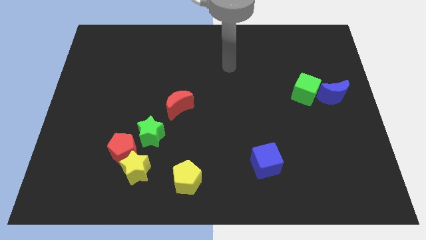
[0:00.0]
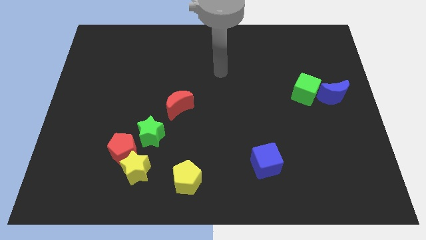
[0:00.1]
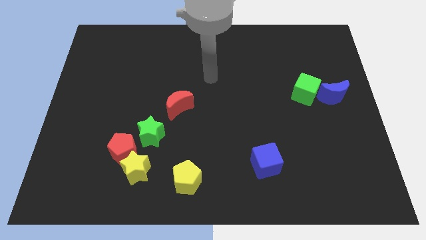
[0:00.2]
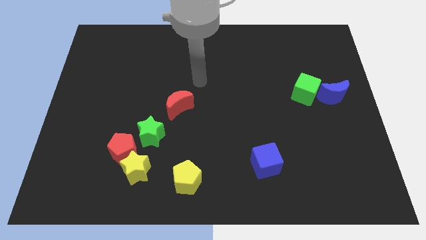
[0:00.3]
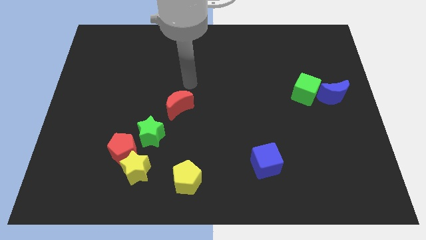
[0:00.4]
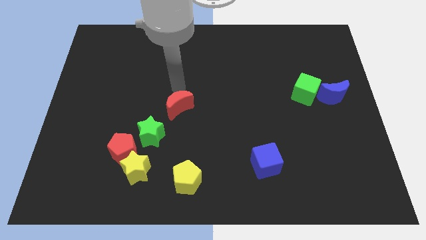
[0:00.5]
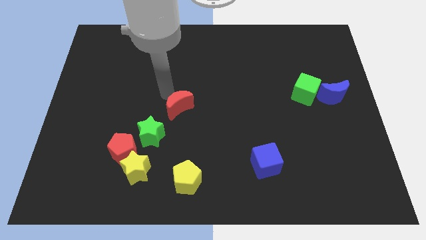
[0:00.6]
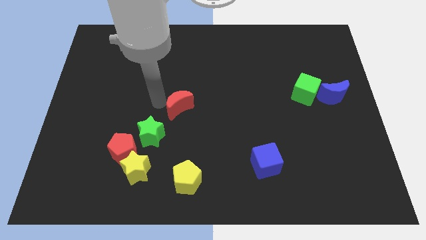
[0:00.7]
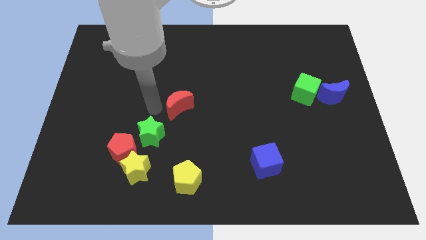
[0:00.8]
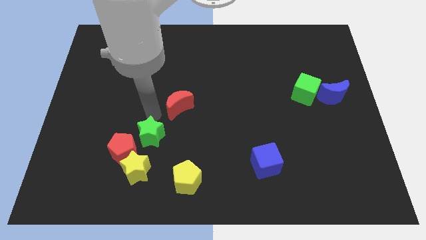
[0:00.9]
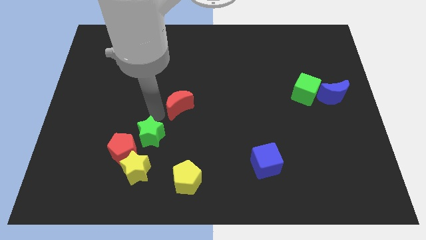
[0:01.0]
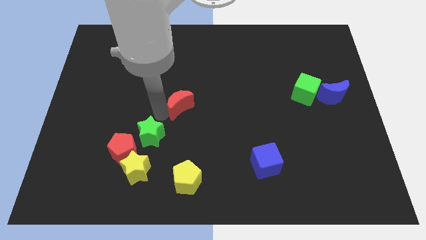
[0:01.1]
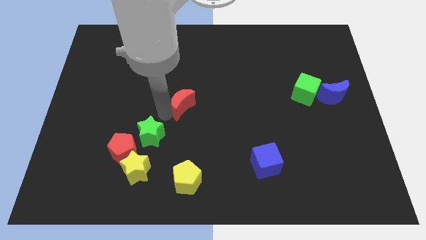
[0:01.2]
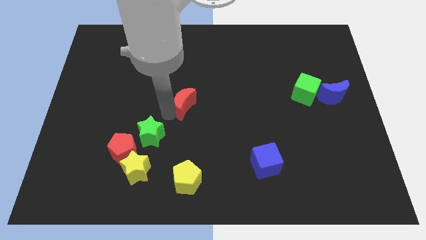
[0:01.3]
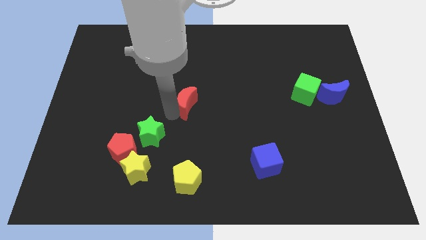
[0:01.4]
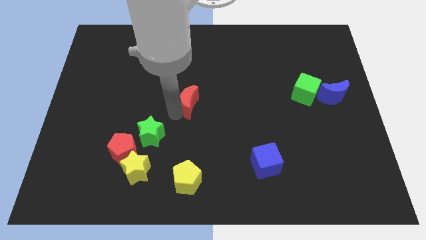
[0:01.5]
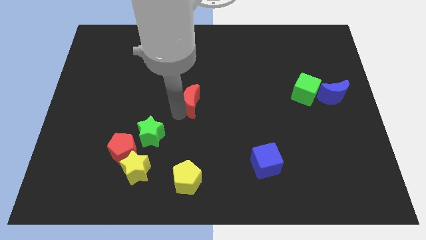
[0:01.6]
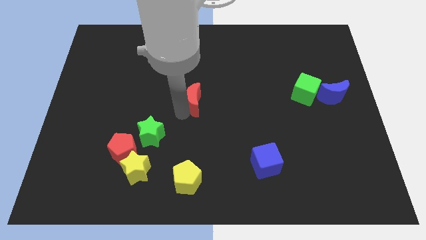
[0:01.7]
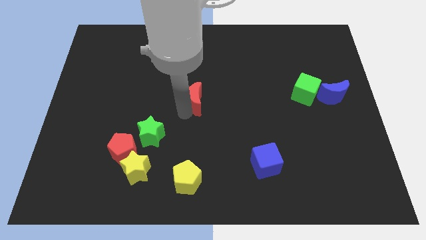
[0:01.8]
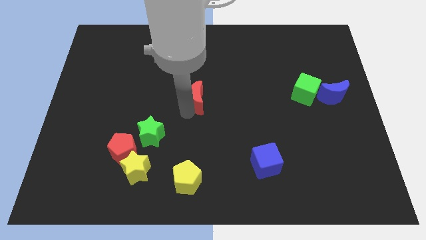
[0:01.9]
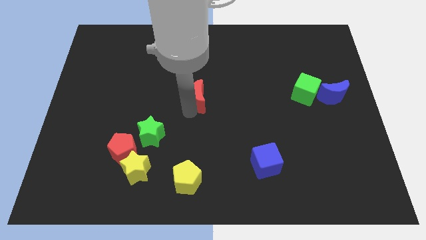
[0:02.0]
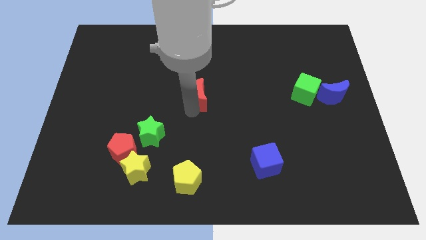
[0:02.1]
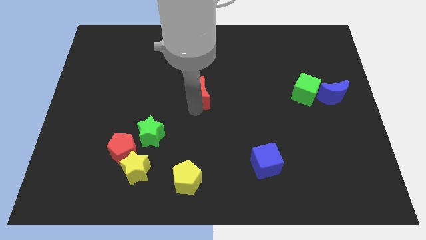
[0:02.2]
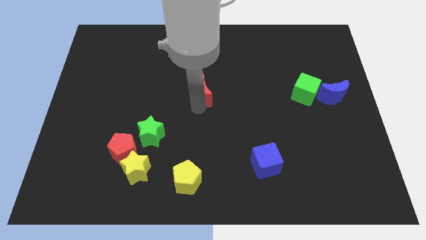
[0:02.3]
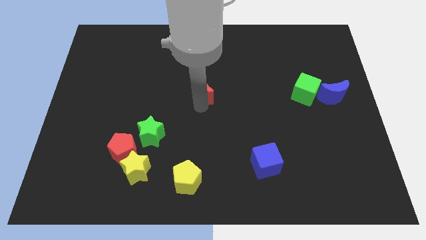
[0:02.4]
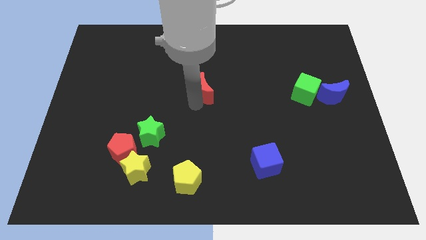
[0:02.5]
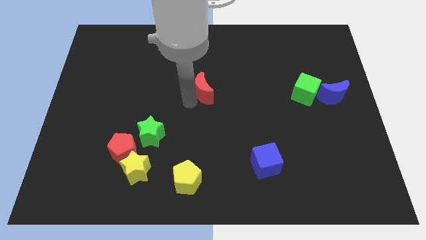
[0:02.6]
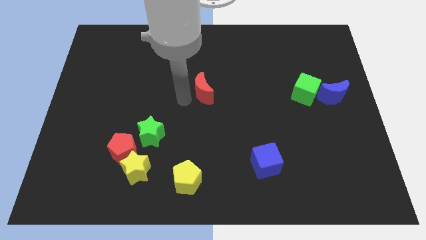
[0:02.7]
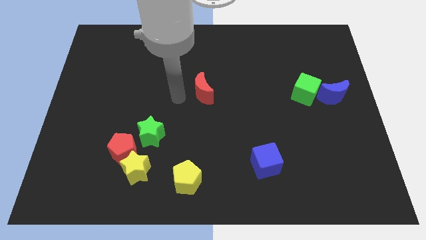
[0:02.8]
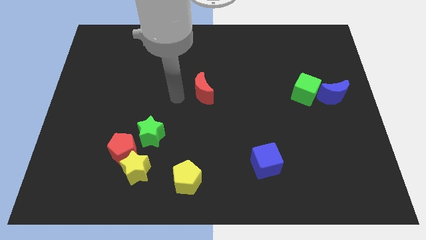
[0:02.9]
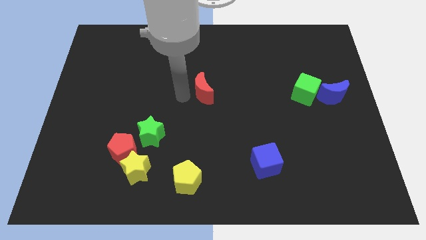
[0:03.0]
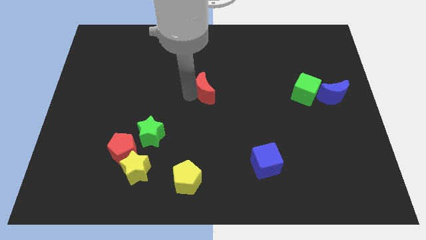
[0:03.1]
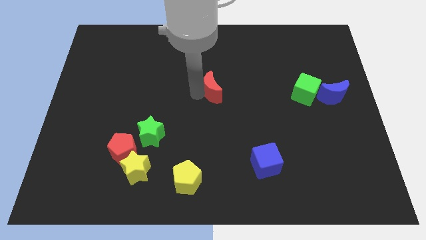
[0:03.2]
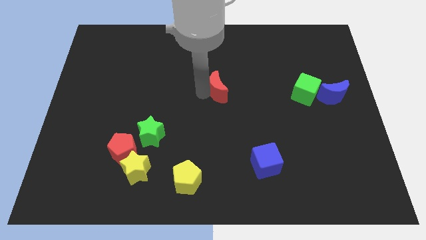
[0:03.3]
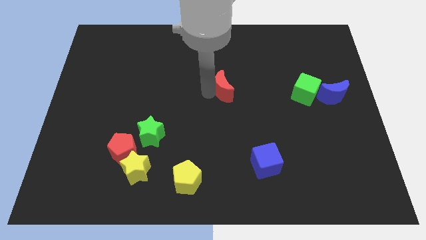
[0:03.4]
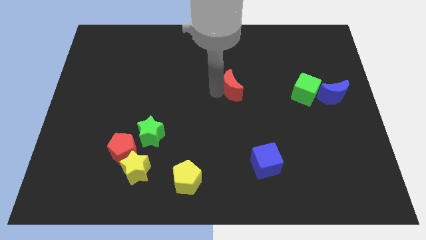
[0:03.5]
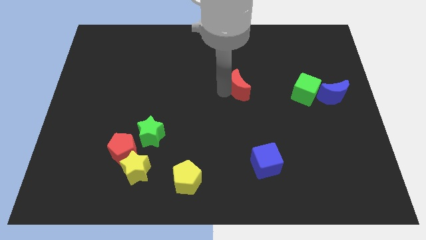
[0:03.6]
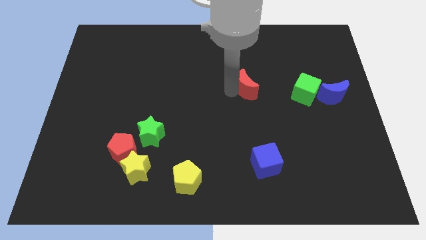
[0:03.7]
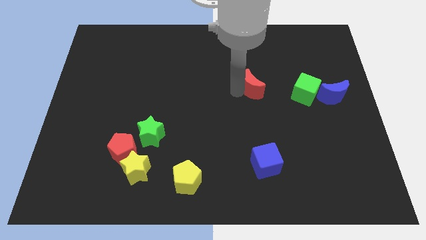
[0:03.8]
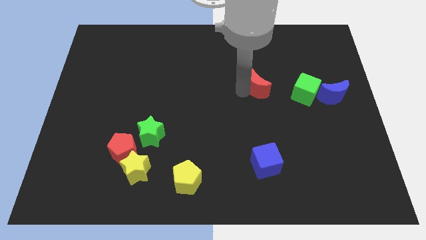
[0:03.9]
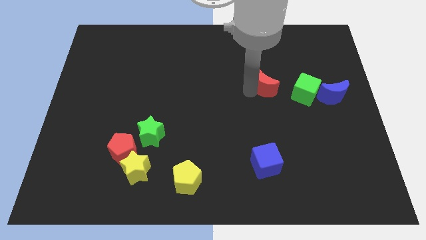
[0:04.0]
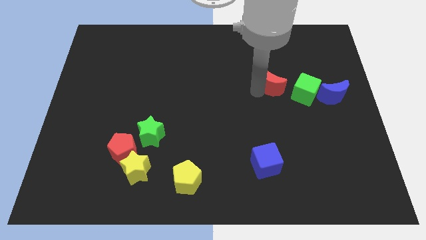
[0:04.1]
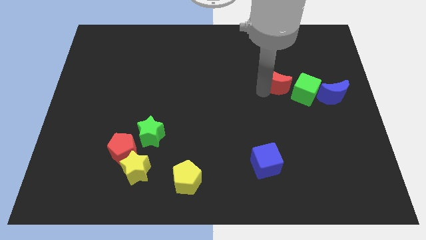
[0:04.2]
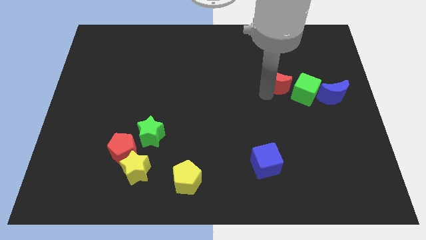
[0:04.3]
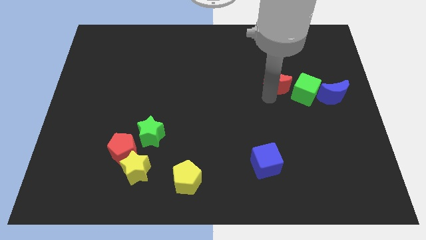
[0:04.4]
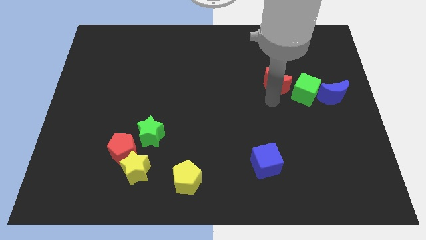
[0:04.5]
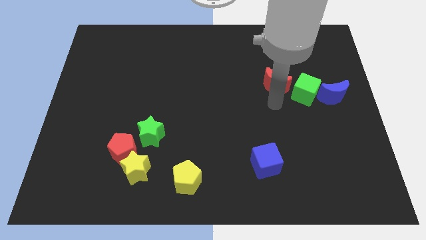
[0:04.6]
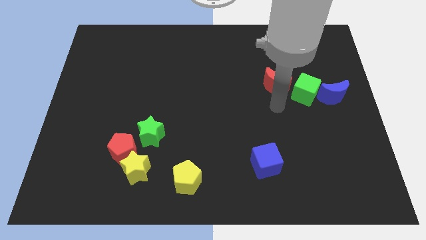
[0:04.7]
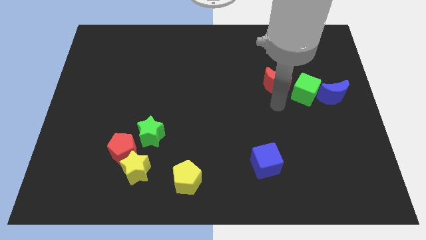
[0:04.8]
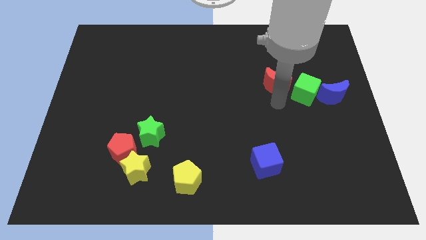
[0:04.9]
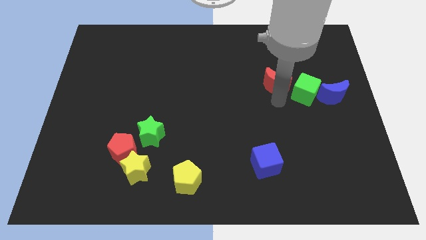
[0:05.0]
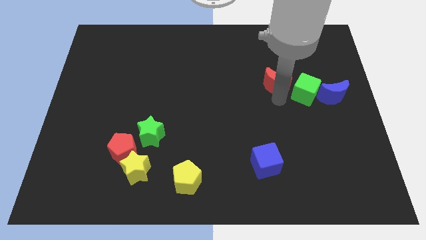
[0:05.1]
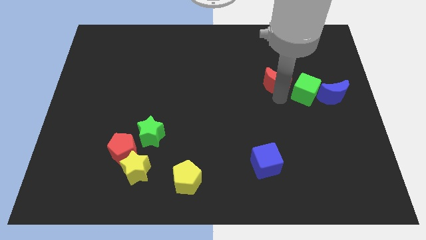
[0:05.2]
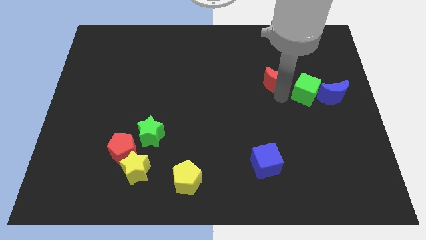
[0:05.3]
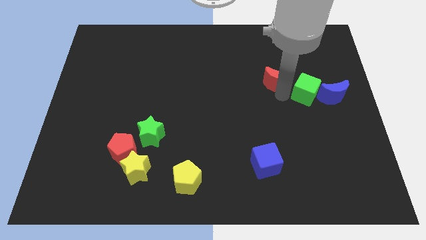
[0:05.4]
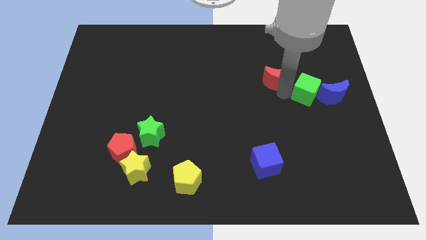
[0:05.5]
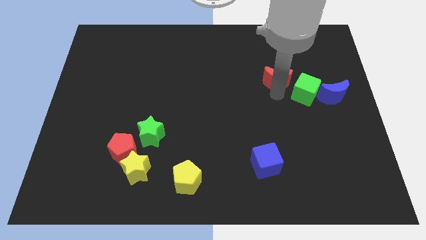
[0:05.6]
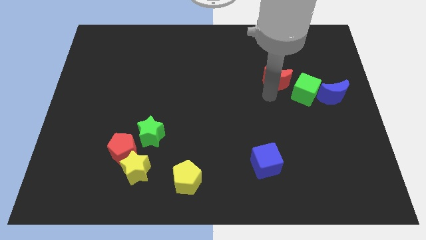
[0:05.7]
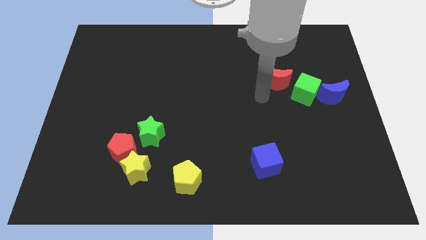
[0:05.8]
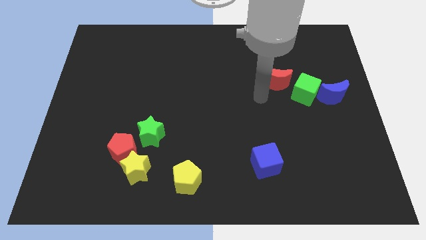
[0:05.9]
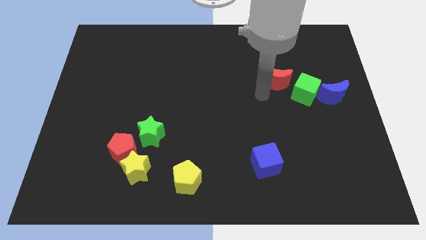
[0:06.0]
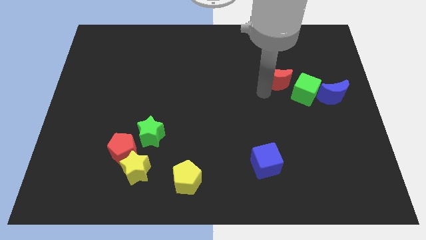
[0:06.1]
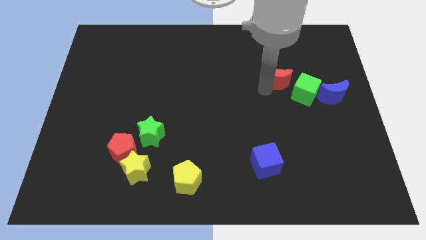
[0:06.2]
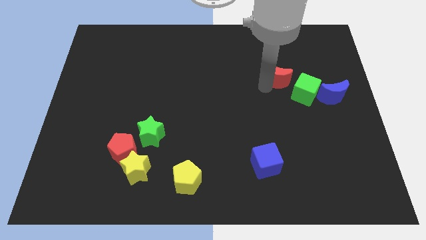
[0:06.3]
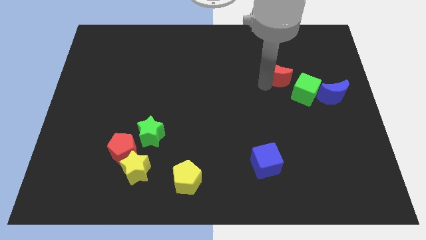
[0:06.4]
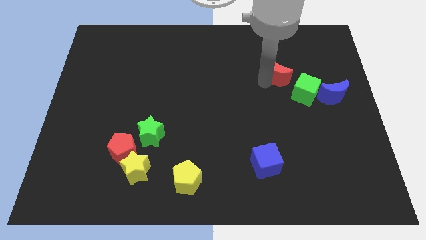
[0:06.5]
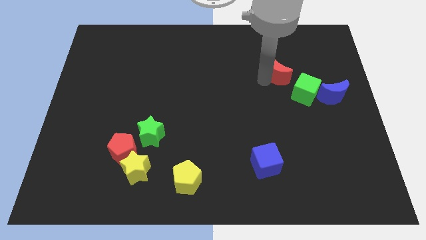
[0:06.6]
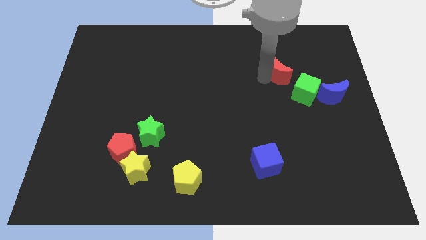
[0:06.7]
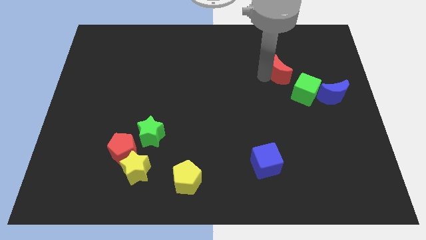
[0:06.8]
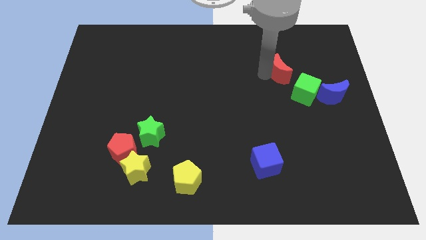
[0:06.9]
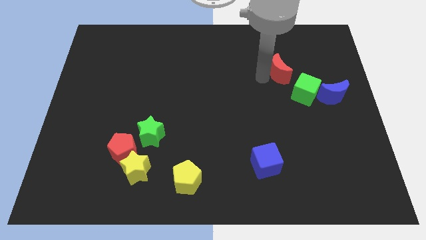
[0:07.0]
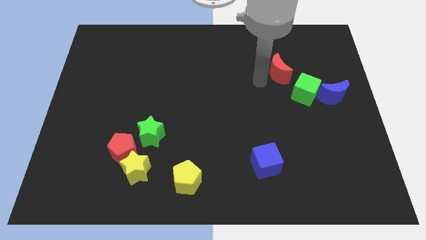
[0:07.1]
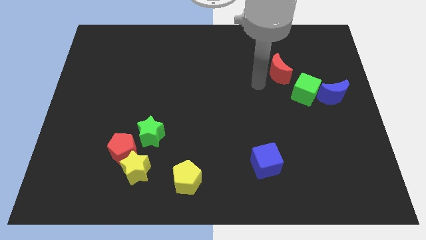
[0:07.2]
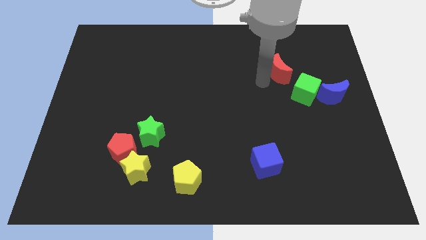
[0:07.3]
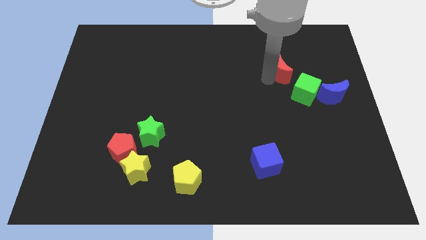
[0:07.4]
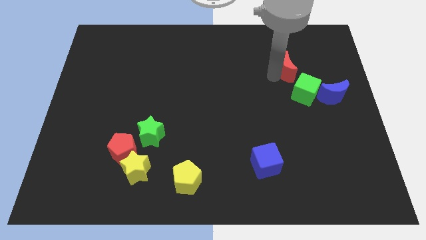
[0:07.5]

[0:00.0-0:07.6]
move the red moon above the green cube
